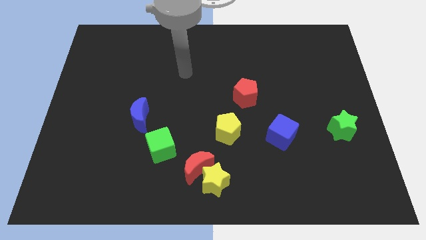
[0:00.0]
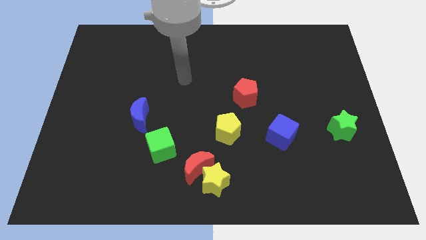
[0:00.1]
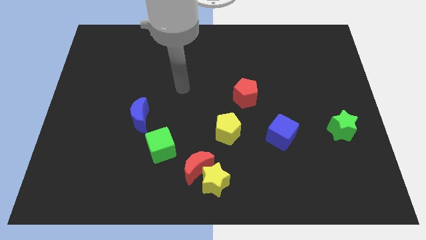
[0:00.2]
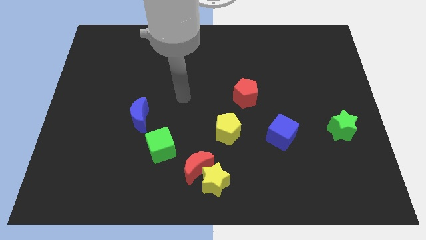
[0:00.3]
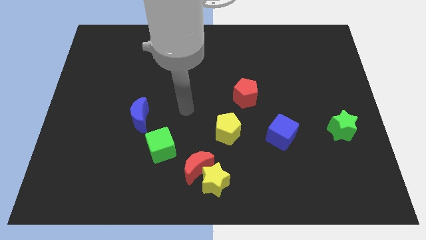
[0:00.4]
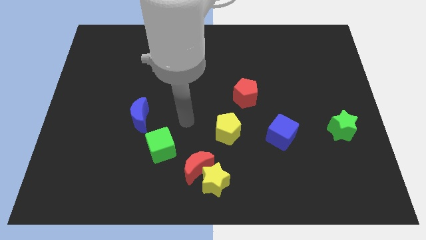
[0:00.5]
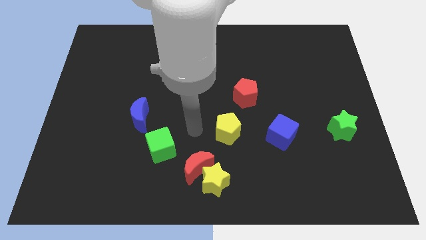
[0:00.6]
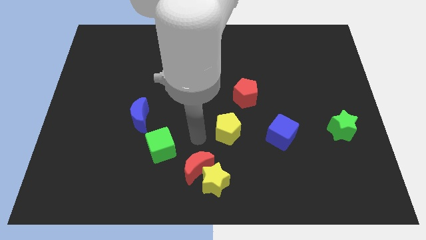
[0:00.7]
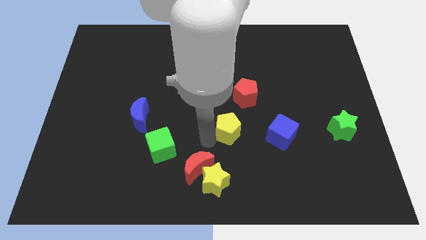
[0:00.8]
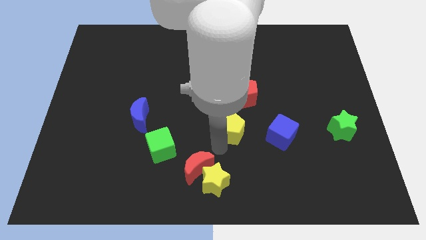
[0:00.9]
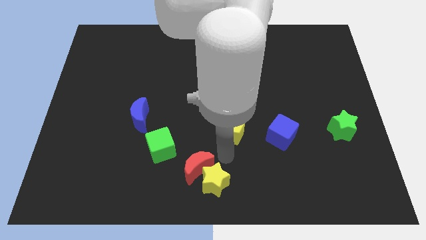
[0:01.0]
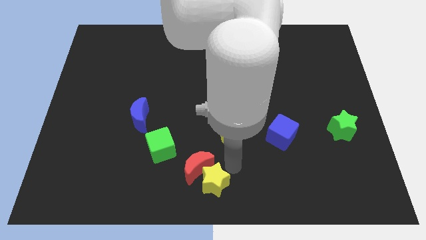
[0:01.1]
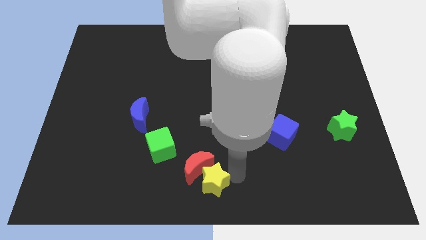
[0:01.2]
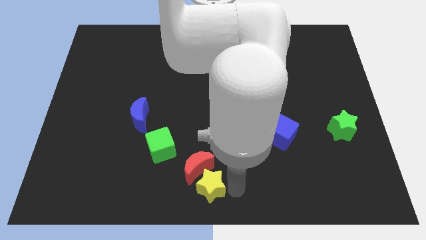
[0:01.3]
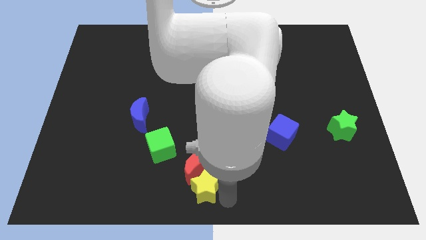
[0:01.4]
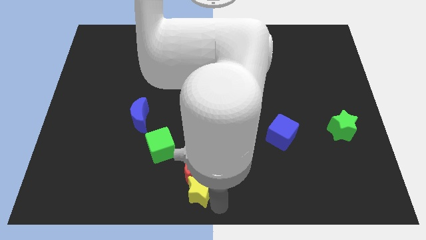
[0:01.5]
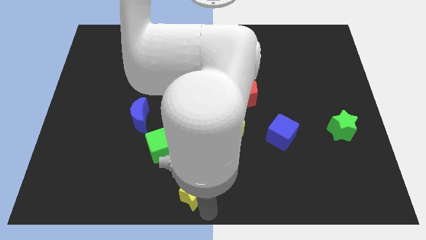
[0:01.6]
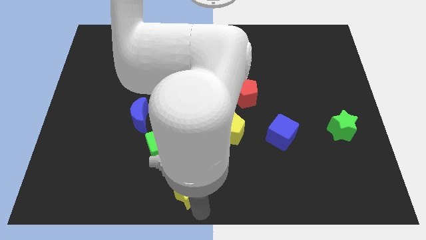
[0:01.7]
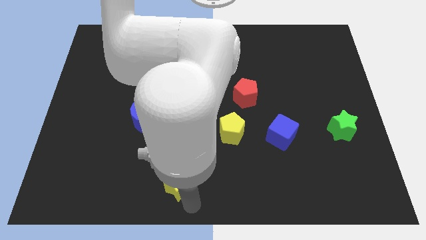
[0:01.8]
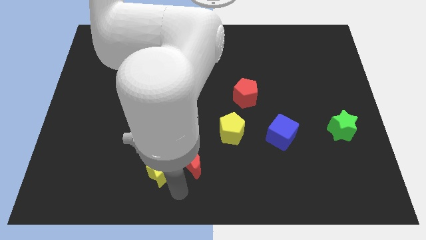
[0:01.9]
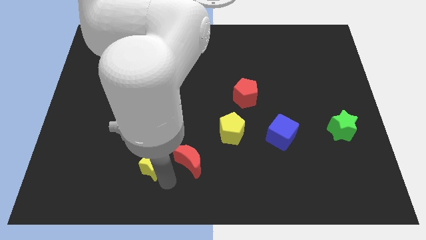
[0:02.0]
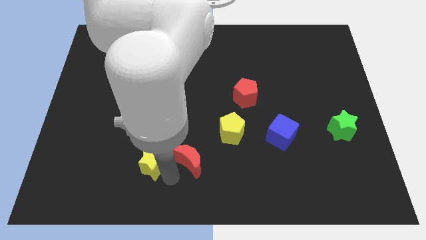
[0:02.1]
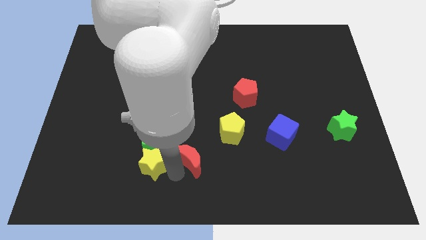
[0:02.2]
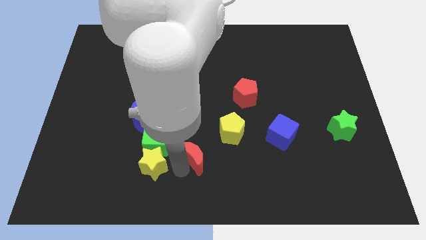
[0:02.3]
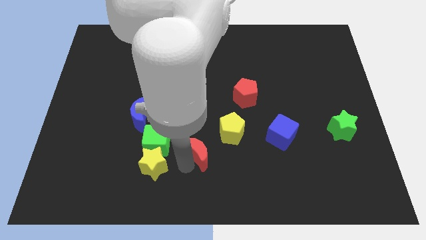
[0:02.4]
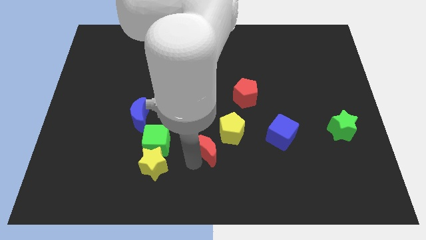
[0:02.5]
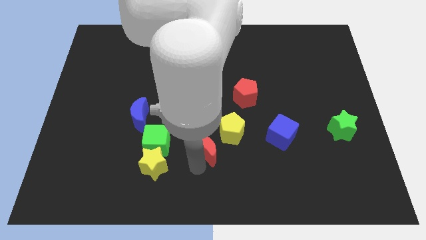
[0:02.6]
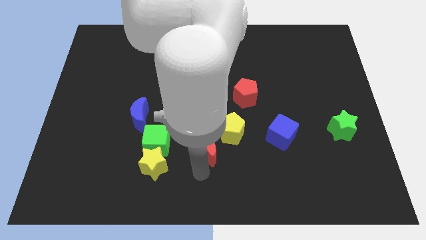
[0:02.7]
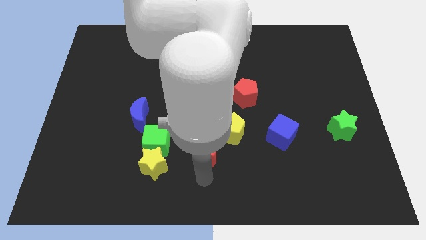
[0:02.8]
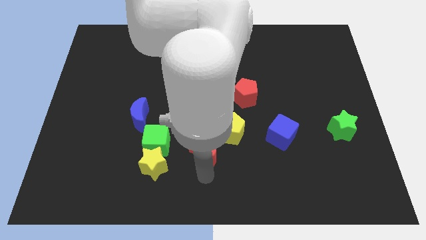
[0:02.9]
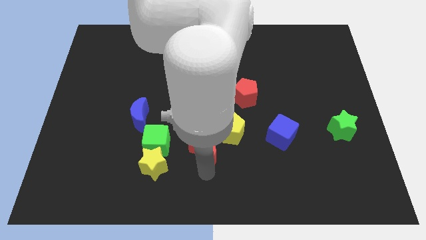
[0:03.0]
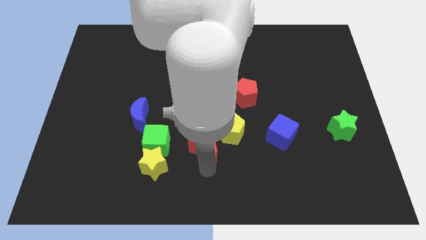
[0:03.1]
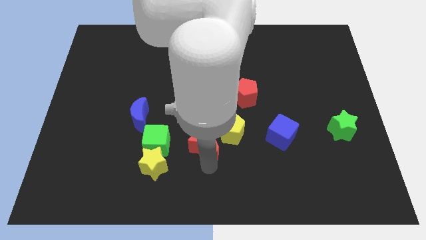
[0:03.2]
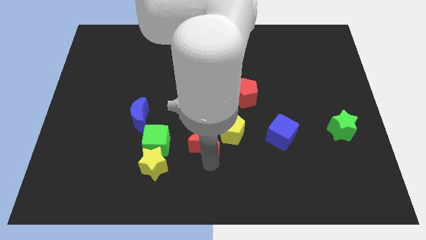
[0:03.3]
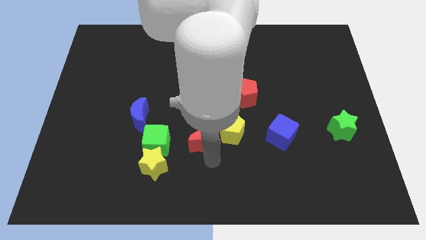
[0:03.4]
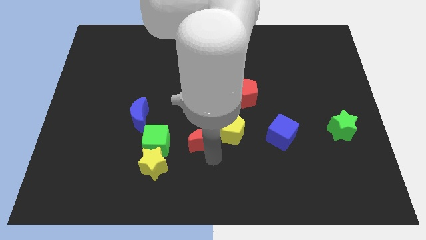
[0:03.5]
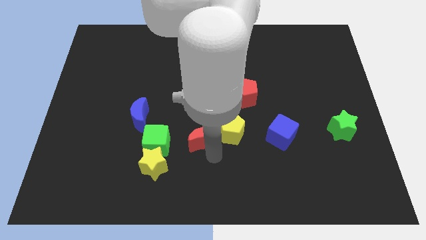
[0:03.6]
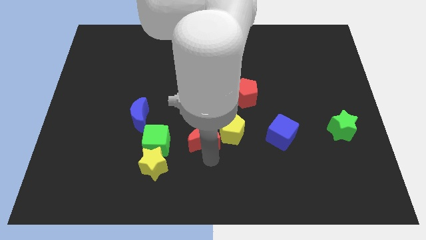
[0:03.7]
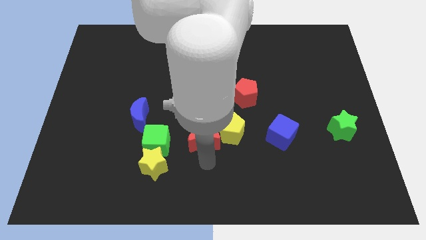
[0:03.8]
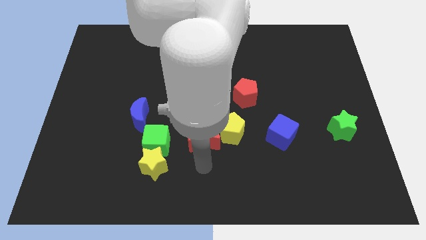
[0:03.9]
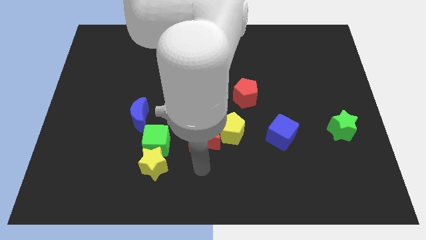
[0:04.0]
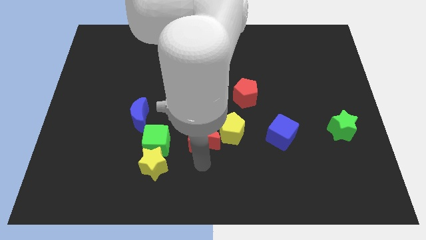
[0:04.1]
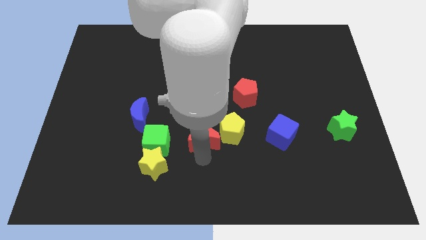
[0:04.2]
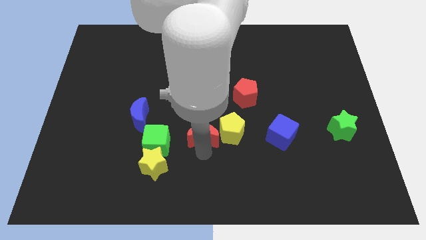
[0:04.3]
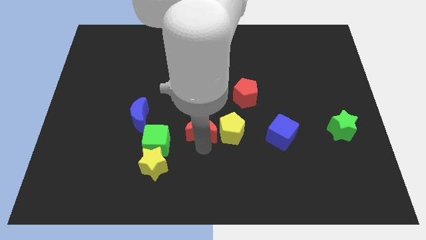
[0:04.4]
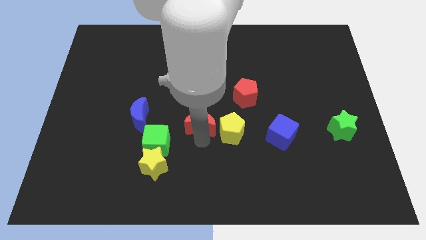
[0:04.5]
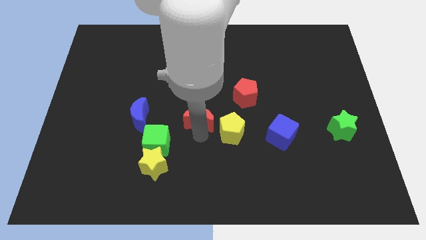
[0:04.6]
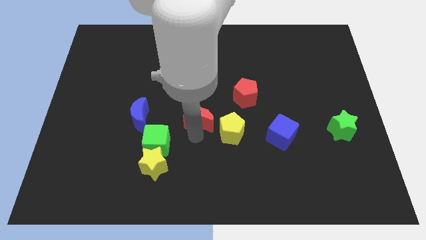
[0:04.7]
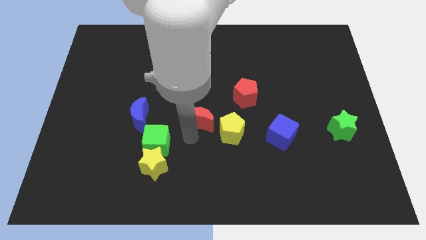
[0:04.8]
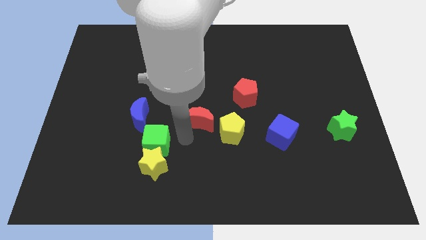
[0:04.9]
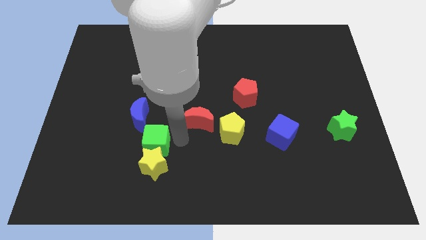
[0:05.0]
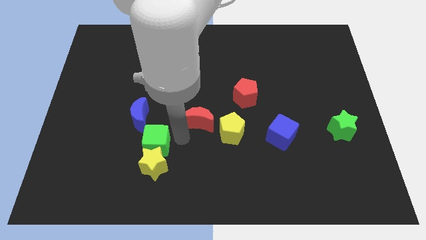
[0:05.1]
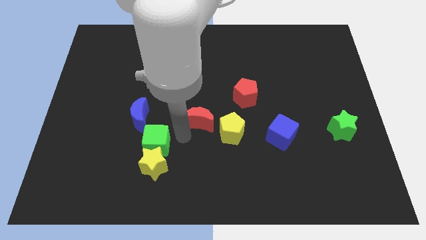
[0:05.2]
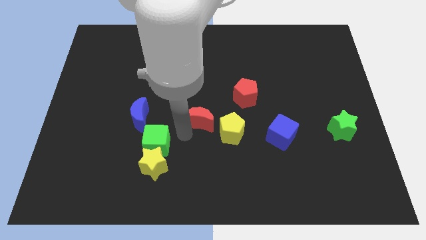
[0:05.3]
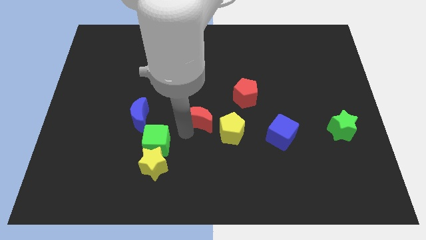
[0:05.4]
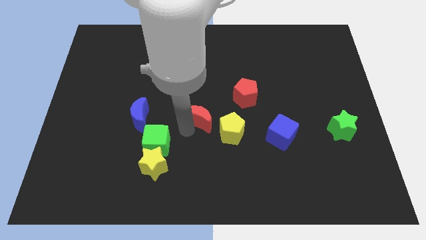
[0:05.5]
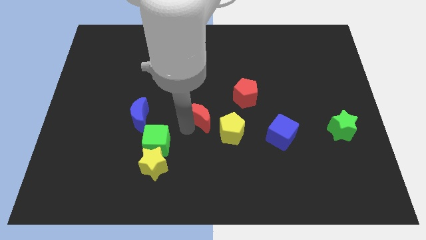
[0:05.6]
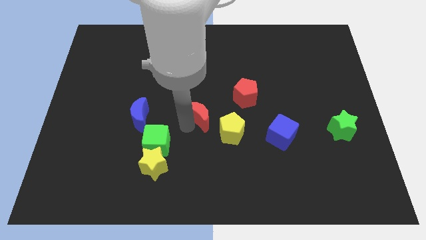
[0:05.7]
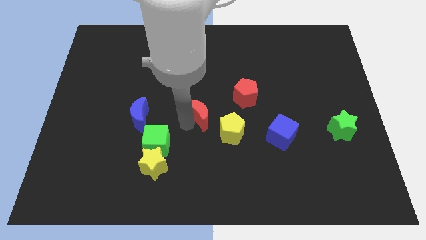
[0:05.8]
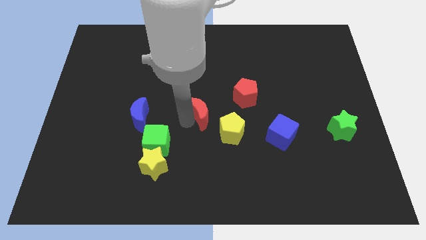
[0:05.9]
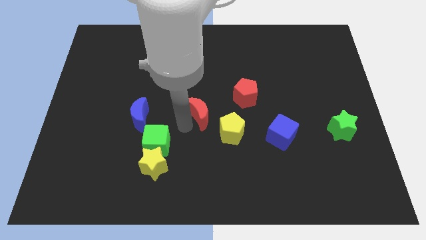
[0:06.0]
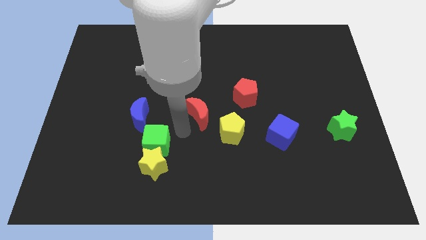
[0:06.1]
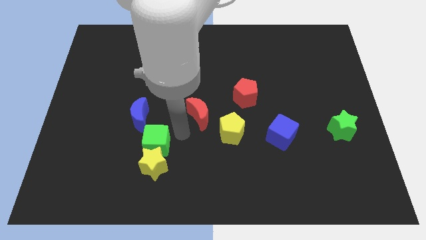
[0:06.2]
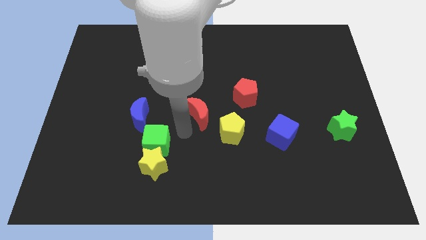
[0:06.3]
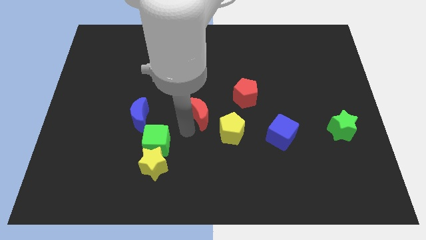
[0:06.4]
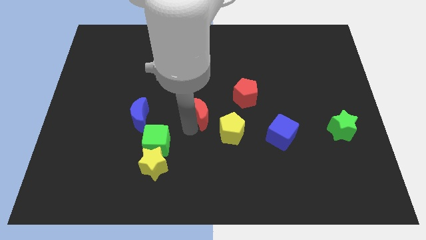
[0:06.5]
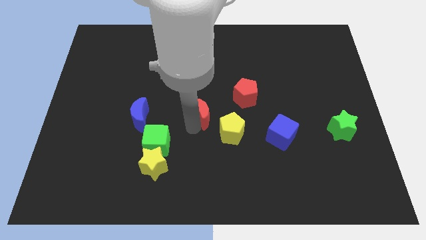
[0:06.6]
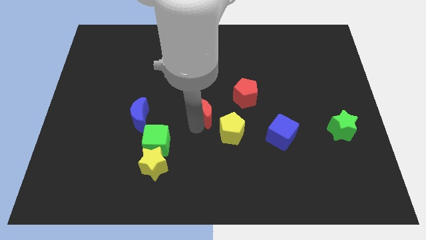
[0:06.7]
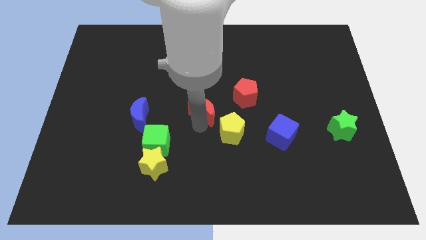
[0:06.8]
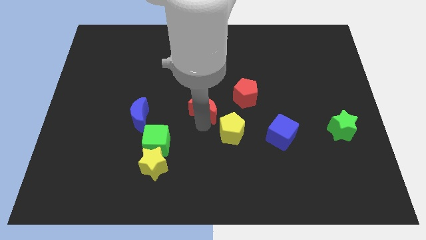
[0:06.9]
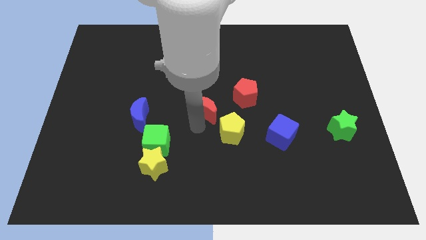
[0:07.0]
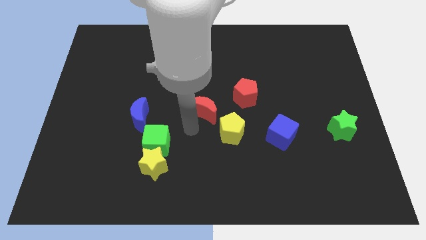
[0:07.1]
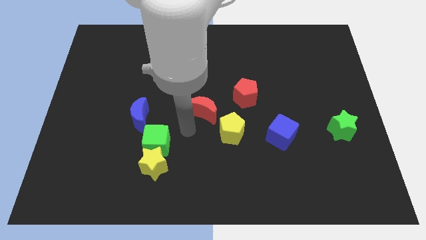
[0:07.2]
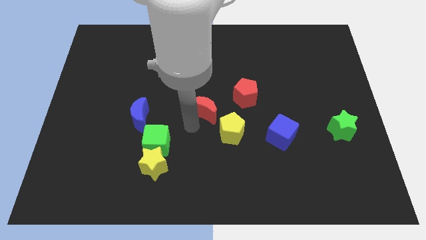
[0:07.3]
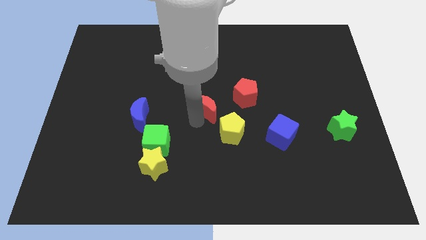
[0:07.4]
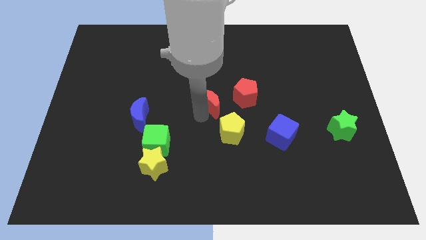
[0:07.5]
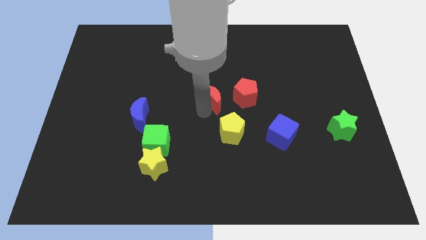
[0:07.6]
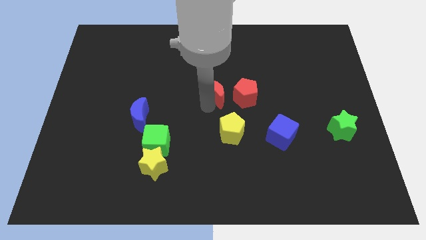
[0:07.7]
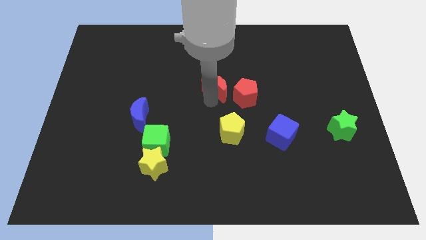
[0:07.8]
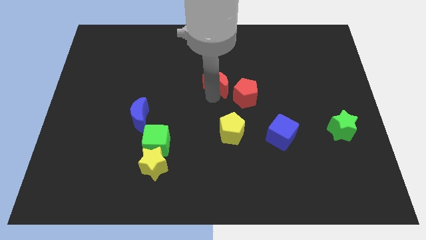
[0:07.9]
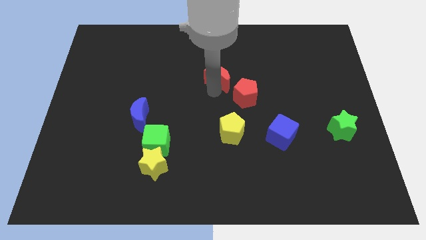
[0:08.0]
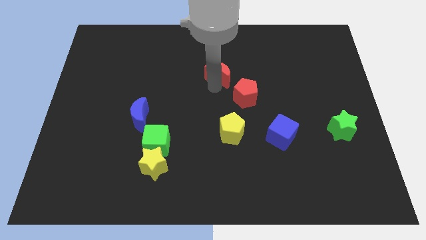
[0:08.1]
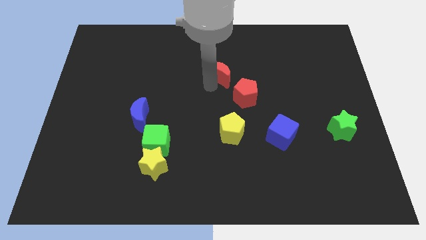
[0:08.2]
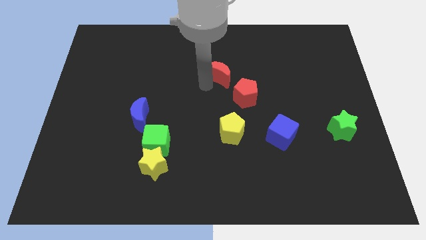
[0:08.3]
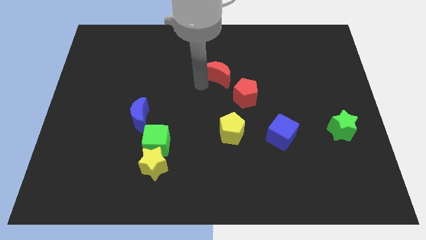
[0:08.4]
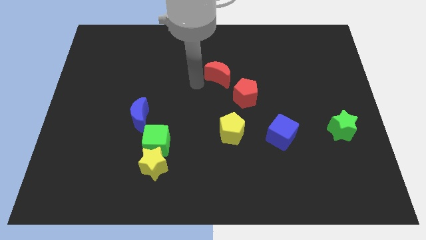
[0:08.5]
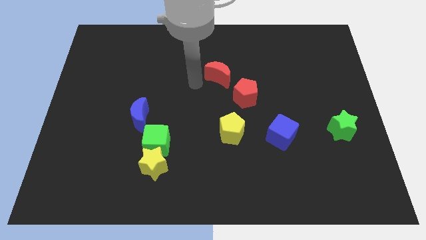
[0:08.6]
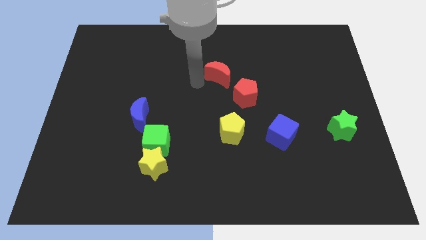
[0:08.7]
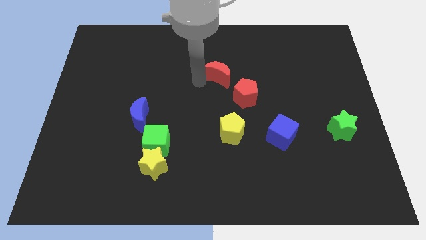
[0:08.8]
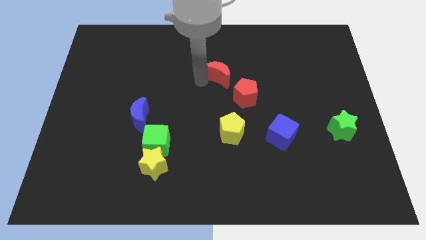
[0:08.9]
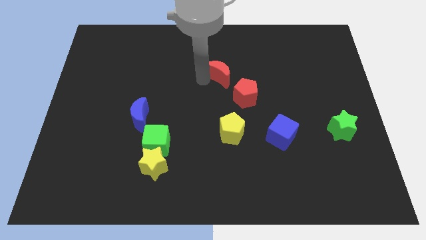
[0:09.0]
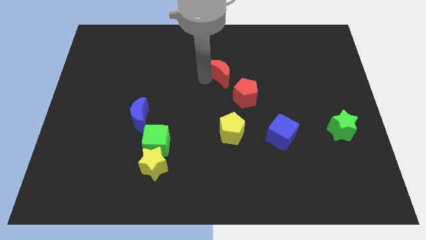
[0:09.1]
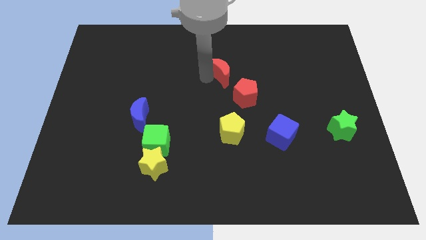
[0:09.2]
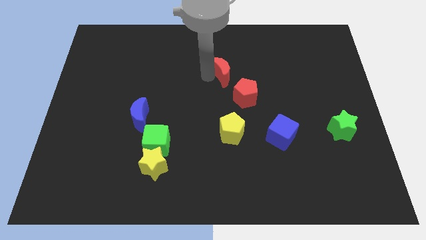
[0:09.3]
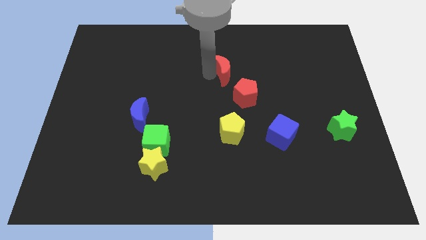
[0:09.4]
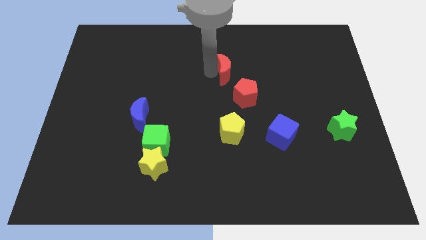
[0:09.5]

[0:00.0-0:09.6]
slide the red moon to the top of the red pentagon
